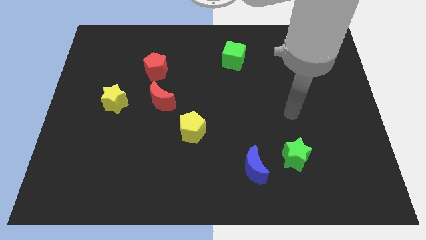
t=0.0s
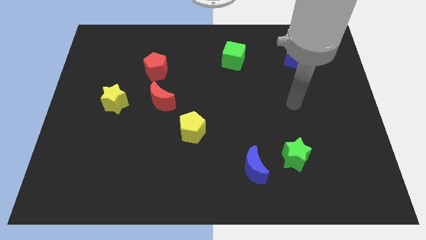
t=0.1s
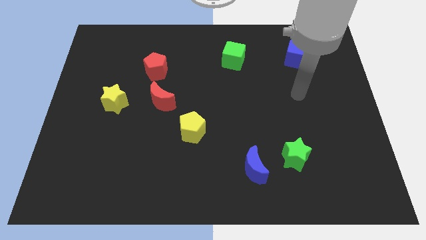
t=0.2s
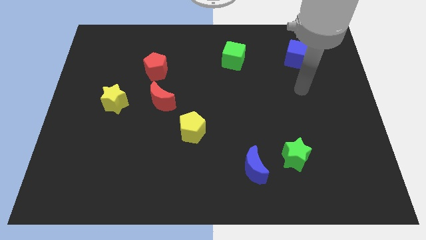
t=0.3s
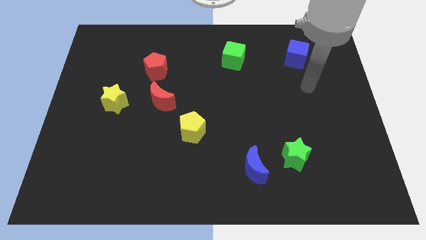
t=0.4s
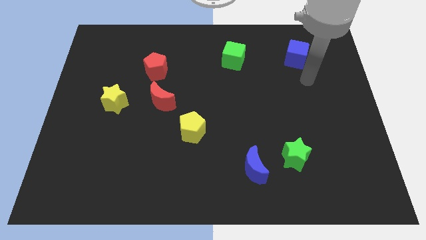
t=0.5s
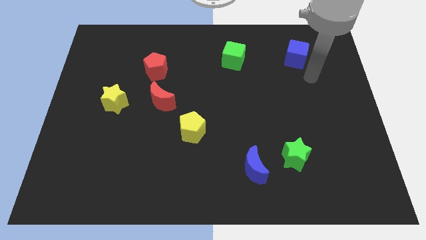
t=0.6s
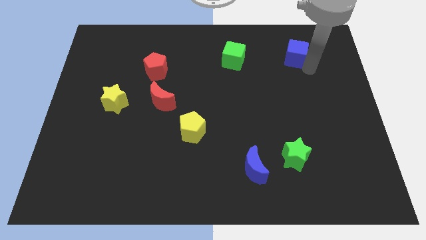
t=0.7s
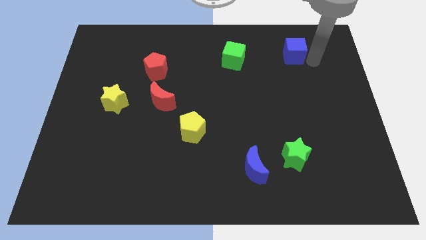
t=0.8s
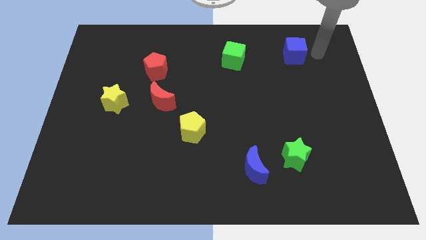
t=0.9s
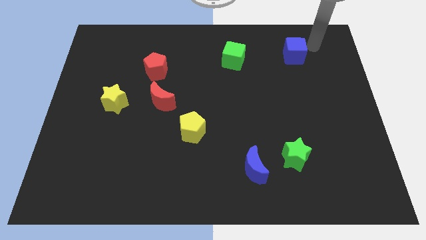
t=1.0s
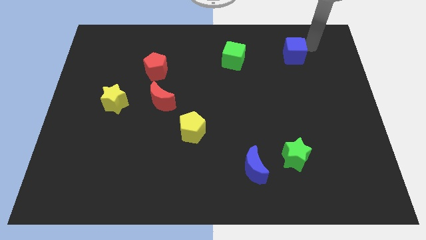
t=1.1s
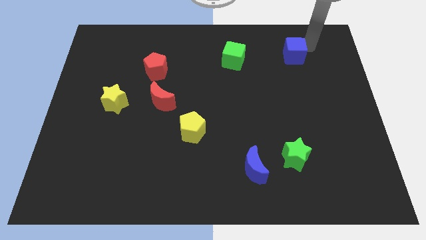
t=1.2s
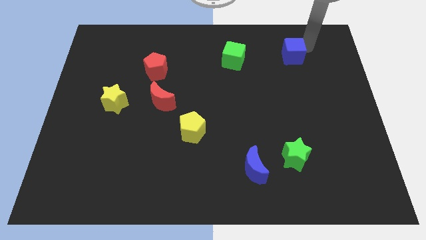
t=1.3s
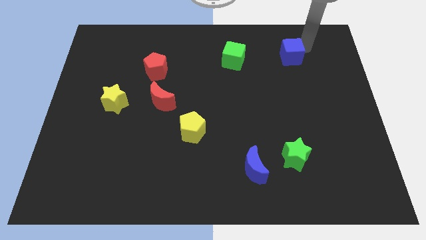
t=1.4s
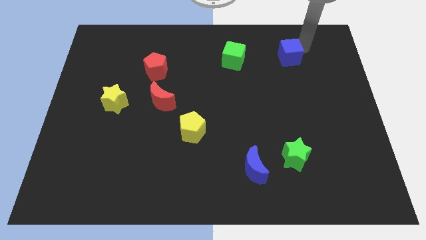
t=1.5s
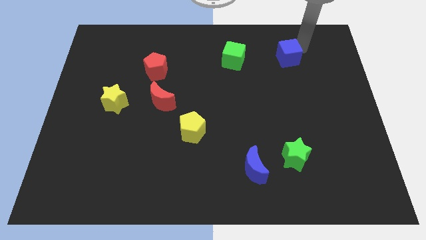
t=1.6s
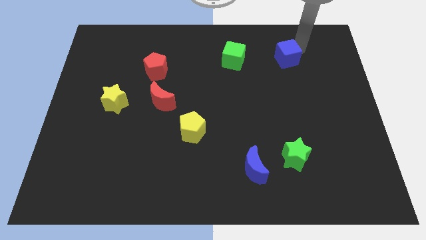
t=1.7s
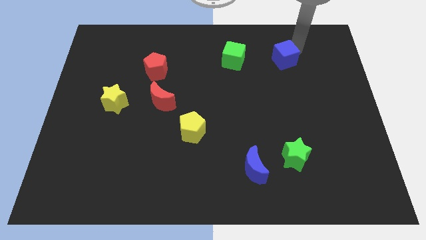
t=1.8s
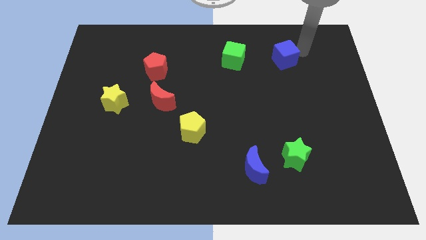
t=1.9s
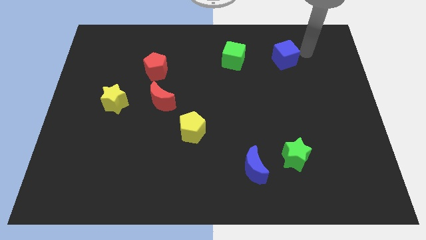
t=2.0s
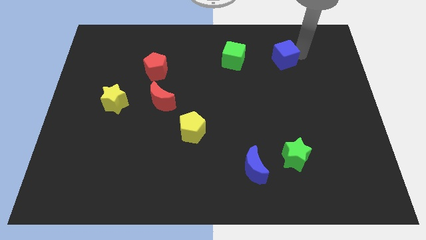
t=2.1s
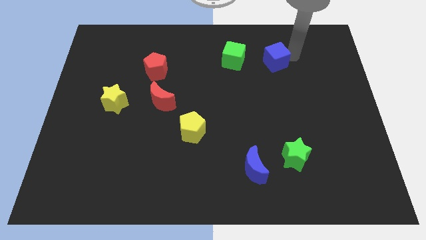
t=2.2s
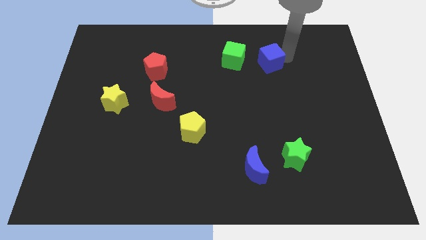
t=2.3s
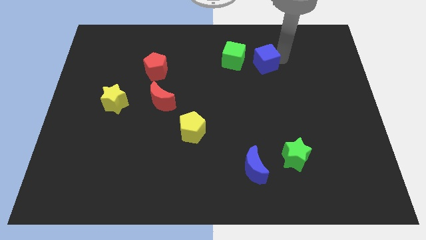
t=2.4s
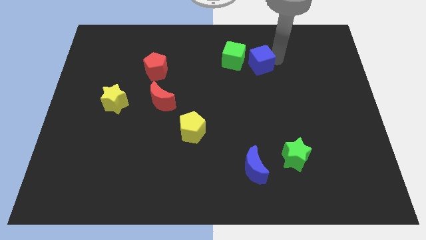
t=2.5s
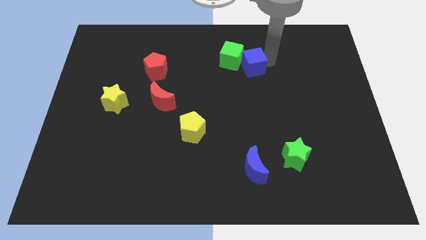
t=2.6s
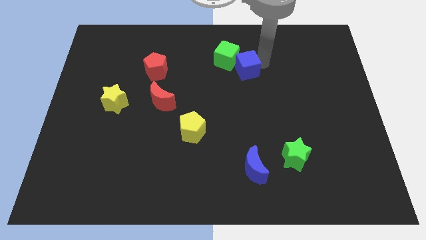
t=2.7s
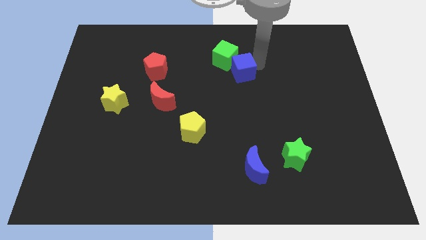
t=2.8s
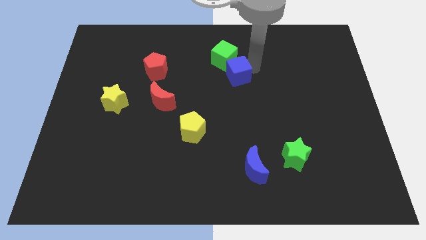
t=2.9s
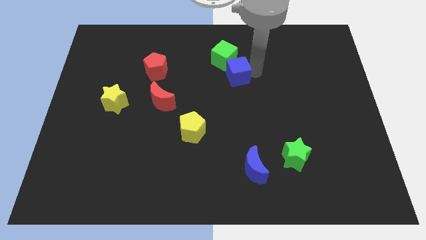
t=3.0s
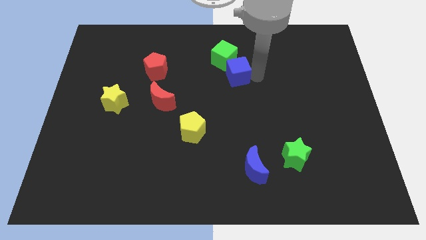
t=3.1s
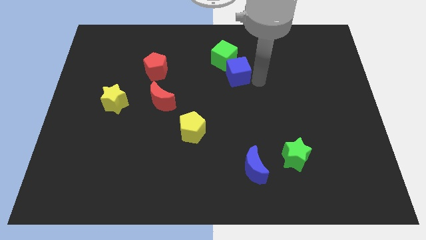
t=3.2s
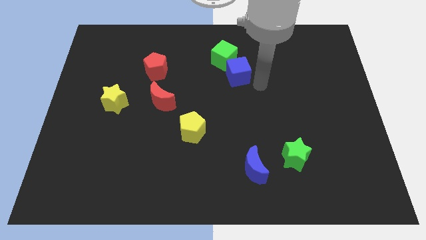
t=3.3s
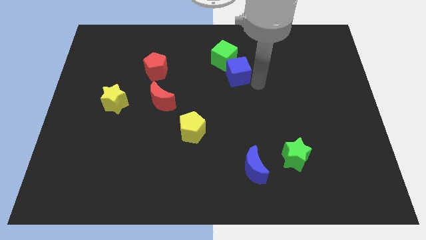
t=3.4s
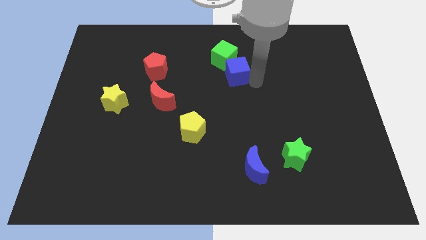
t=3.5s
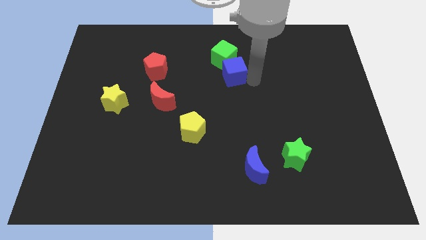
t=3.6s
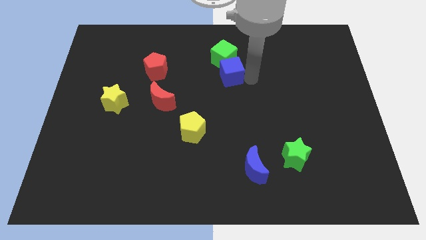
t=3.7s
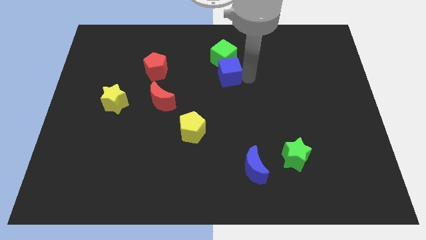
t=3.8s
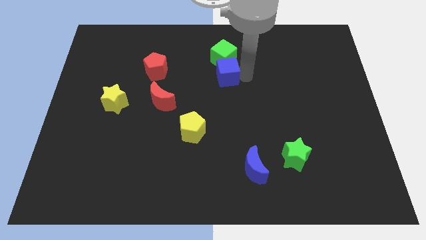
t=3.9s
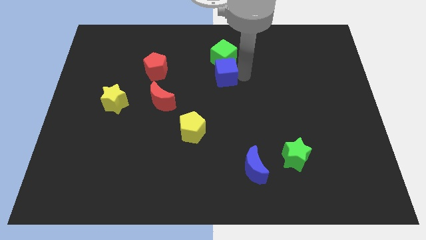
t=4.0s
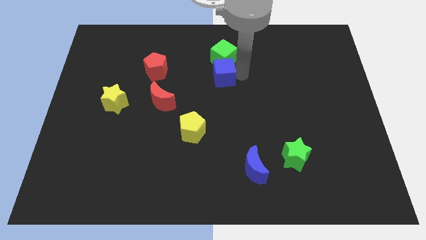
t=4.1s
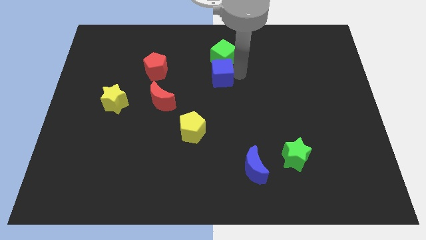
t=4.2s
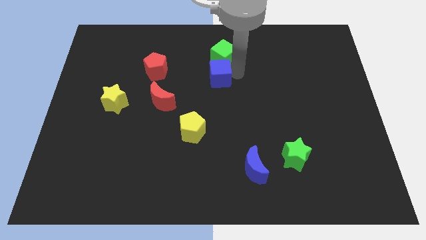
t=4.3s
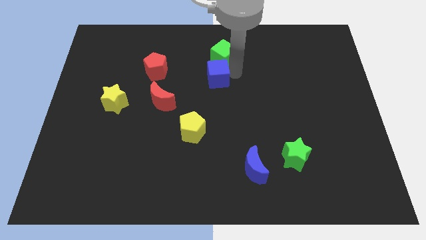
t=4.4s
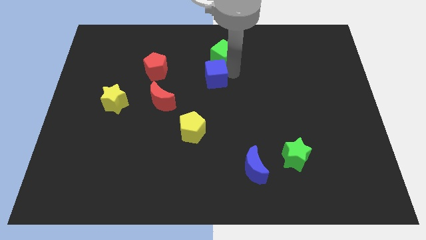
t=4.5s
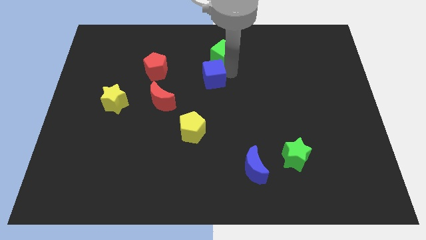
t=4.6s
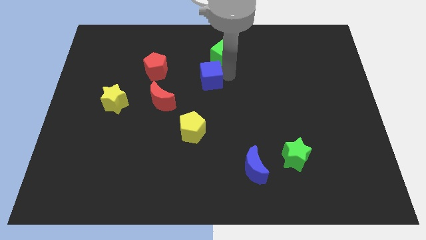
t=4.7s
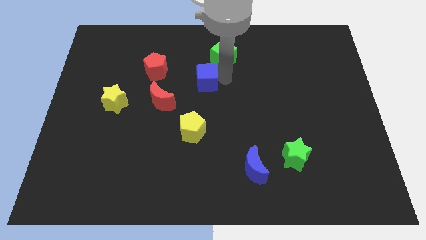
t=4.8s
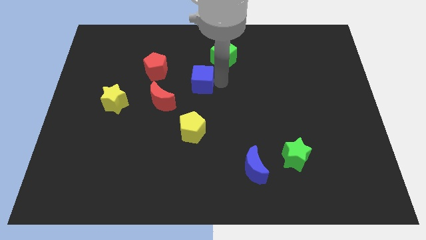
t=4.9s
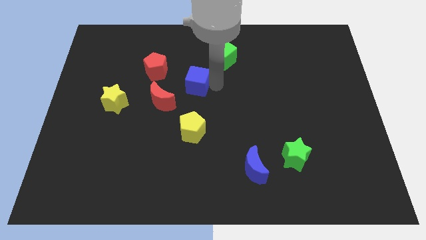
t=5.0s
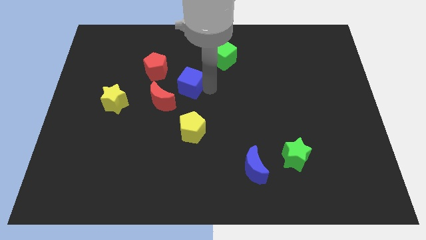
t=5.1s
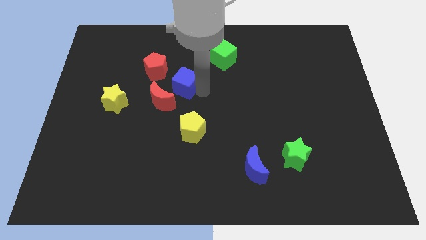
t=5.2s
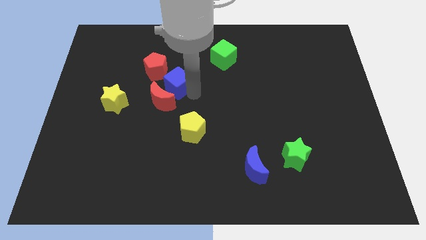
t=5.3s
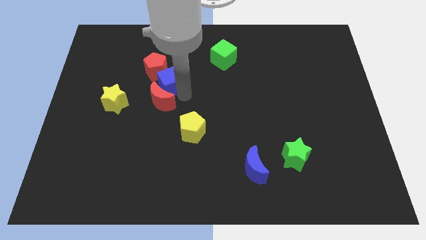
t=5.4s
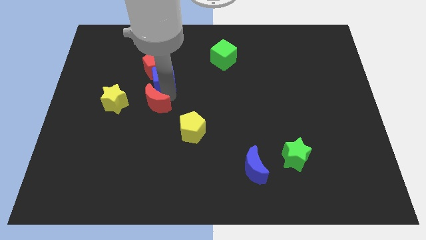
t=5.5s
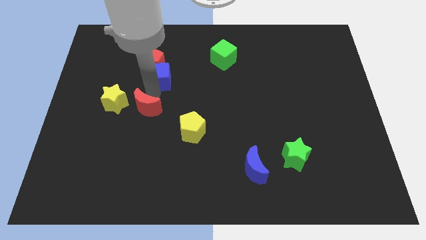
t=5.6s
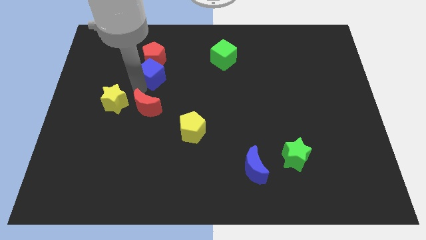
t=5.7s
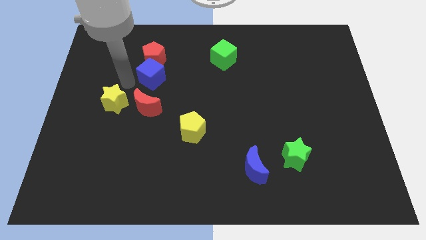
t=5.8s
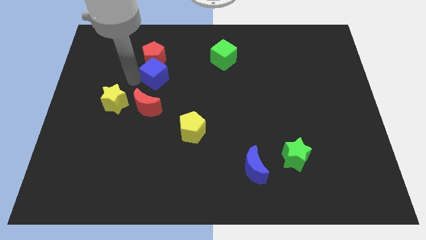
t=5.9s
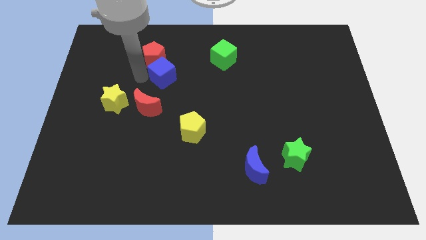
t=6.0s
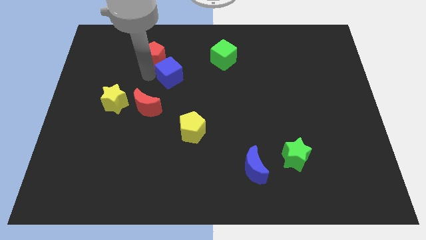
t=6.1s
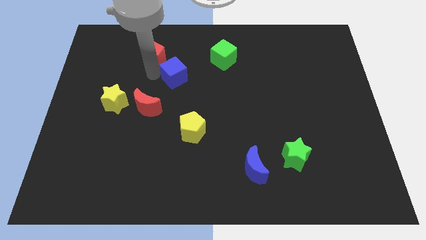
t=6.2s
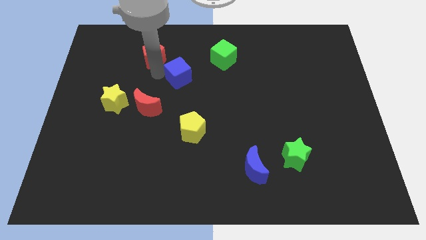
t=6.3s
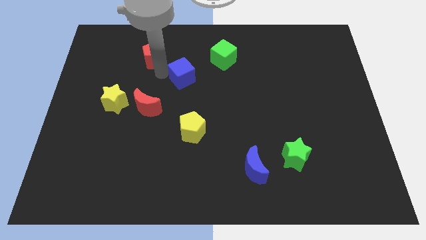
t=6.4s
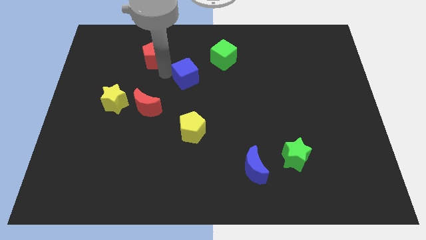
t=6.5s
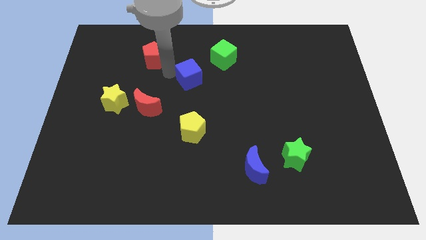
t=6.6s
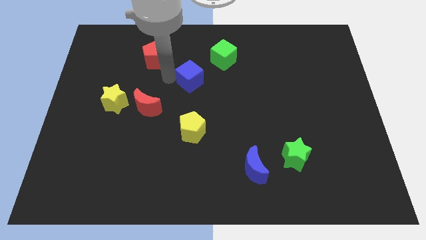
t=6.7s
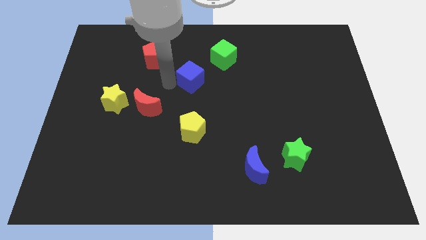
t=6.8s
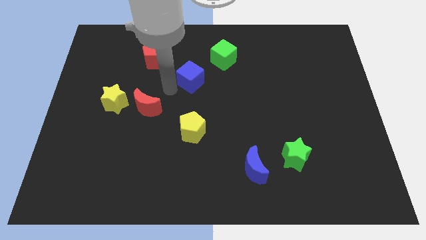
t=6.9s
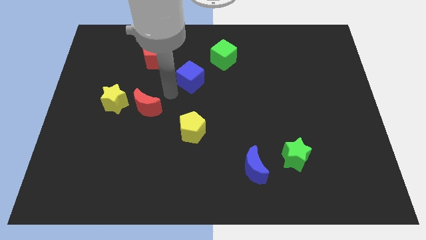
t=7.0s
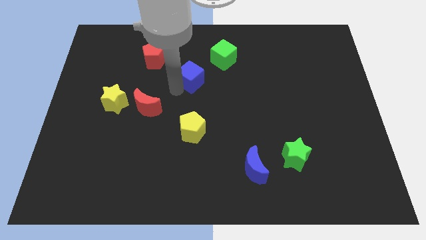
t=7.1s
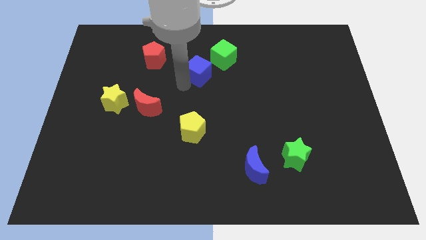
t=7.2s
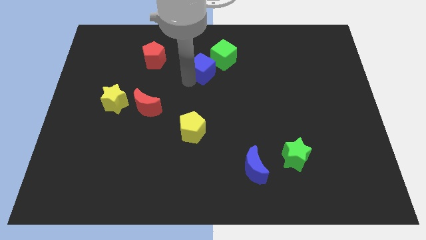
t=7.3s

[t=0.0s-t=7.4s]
move the blue cube left of the green cube

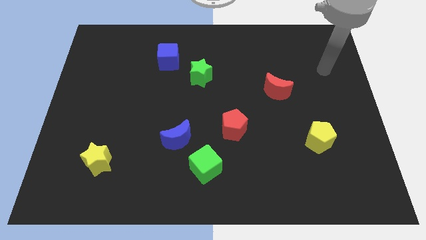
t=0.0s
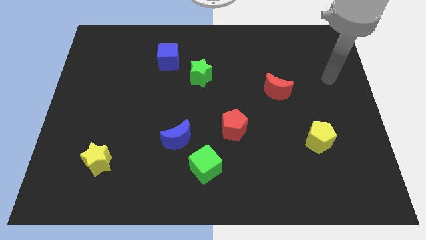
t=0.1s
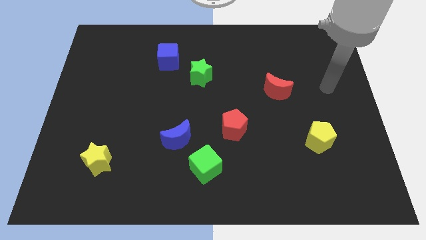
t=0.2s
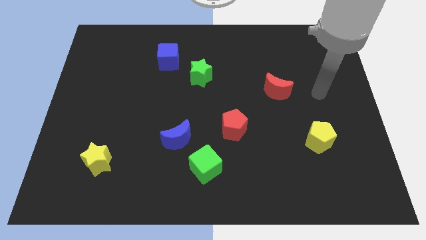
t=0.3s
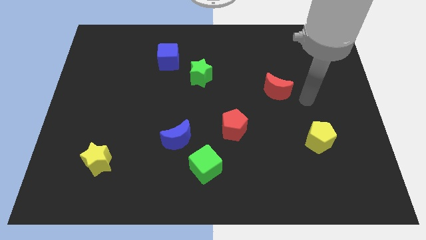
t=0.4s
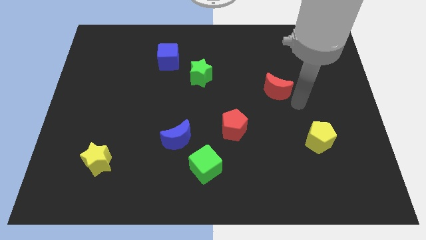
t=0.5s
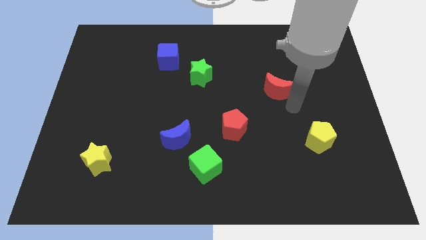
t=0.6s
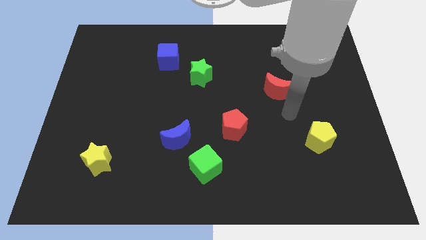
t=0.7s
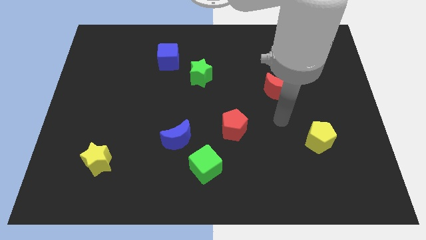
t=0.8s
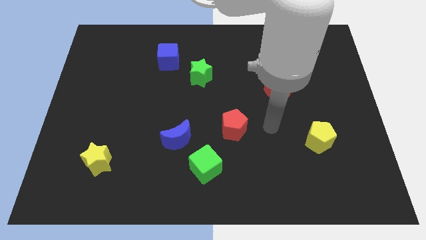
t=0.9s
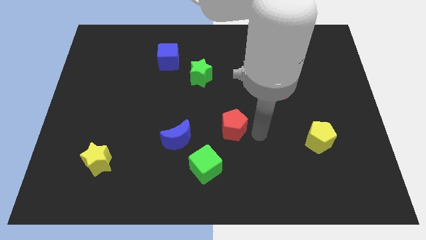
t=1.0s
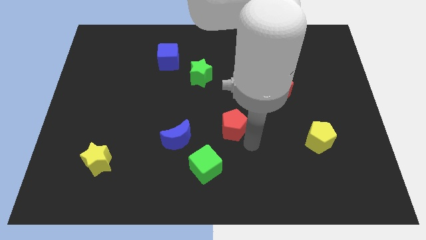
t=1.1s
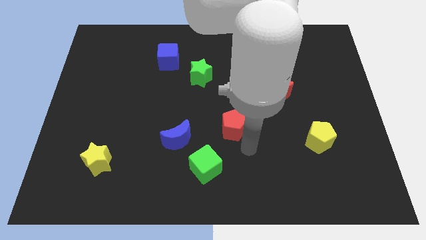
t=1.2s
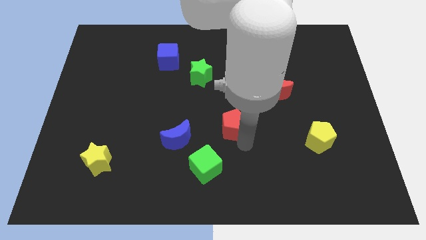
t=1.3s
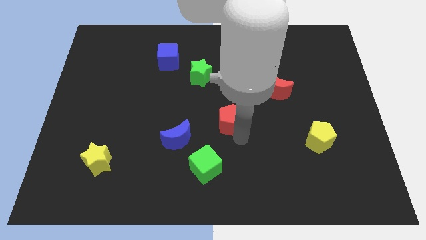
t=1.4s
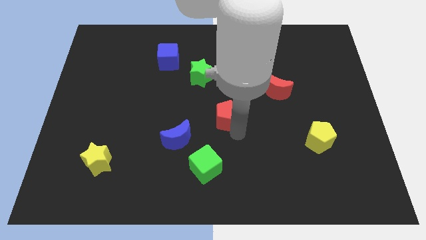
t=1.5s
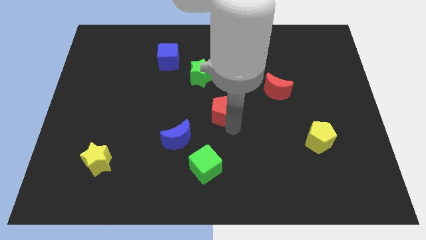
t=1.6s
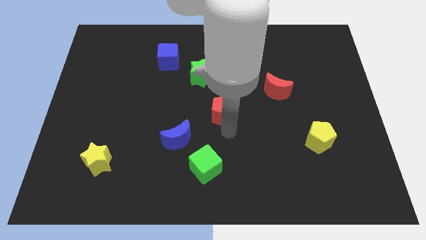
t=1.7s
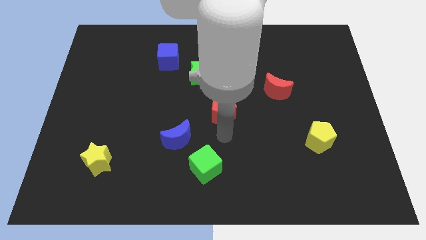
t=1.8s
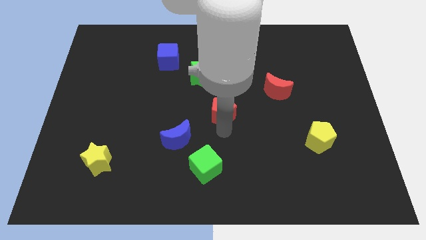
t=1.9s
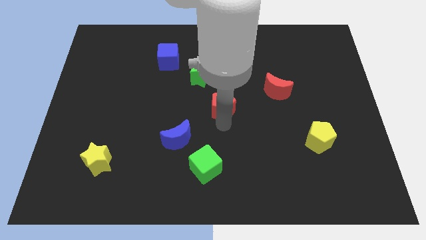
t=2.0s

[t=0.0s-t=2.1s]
move the red pentagon to the bottom right side of the green star
